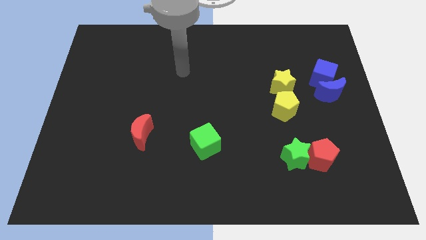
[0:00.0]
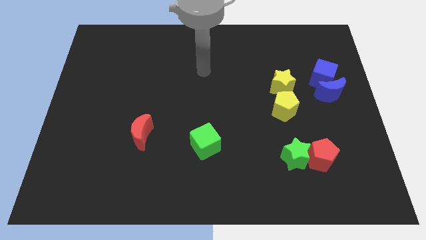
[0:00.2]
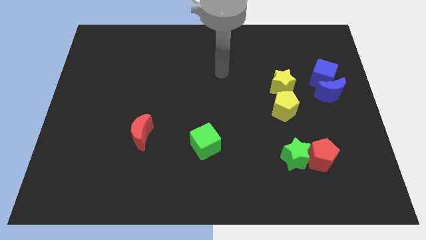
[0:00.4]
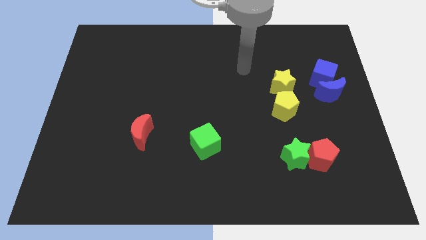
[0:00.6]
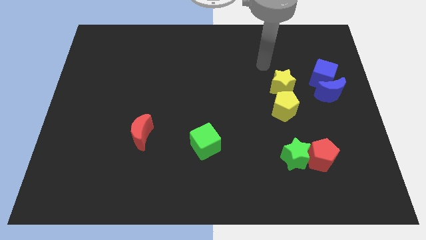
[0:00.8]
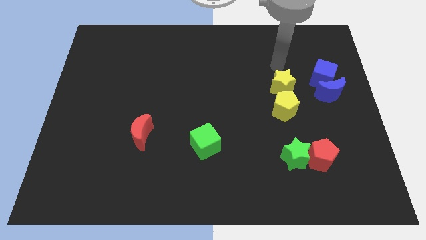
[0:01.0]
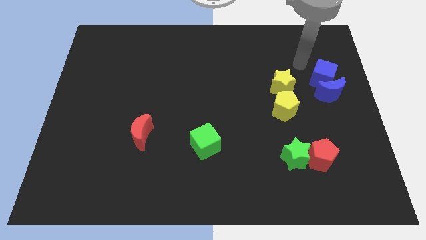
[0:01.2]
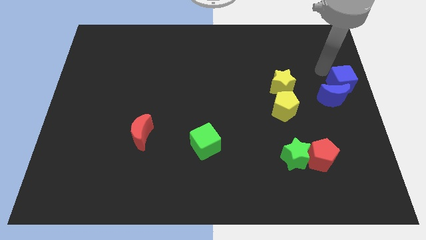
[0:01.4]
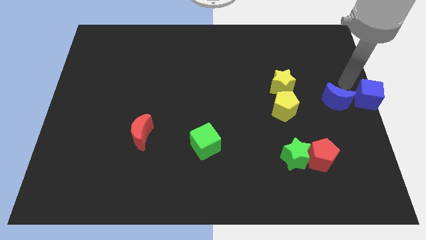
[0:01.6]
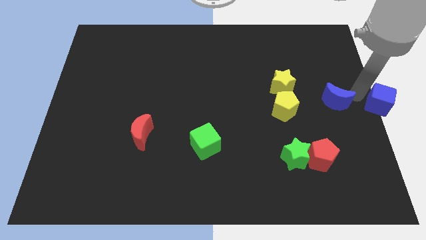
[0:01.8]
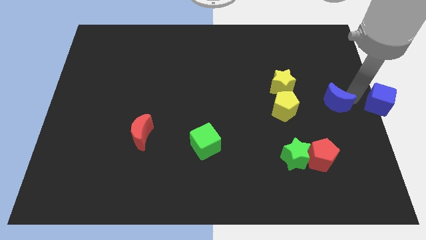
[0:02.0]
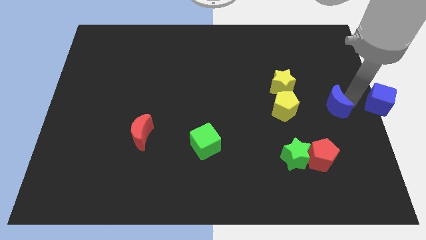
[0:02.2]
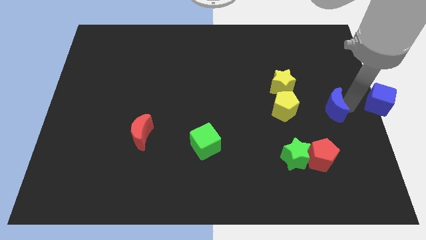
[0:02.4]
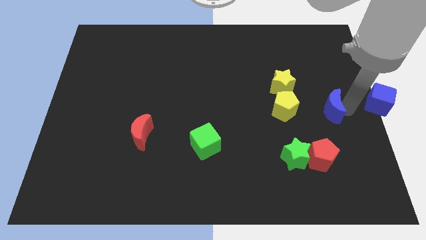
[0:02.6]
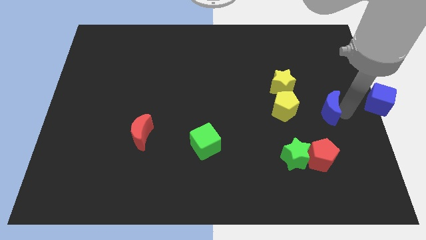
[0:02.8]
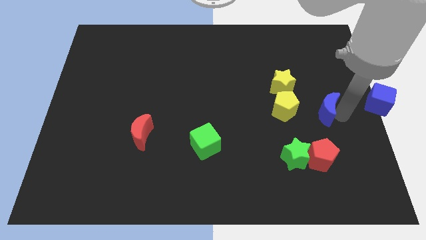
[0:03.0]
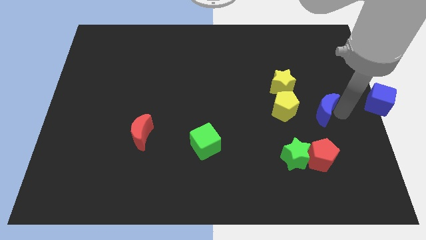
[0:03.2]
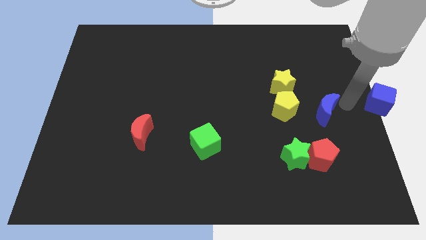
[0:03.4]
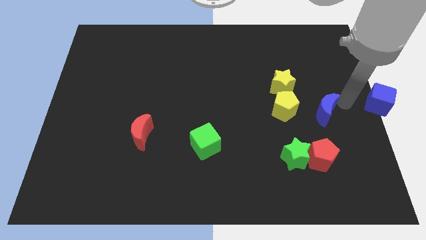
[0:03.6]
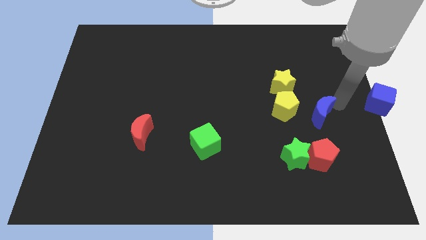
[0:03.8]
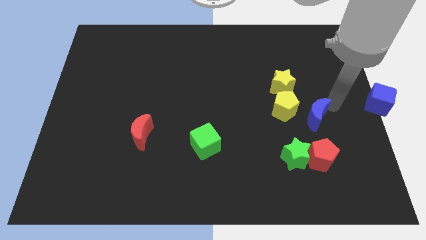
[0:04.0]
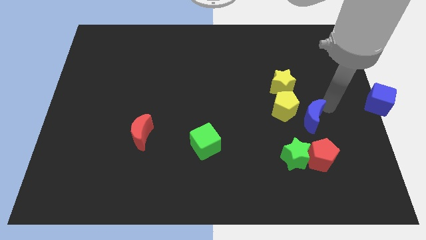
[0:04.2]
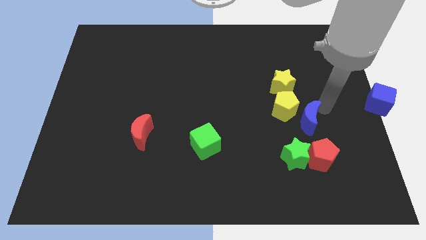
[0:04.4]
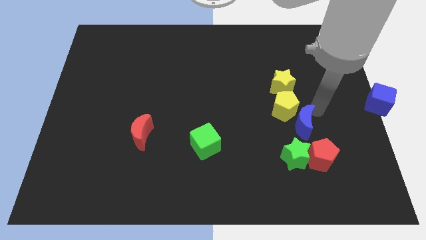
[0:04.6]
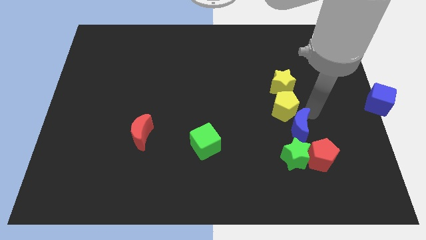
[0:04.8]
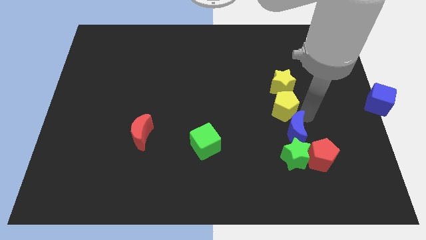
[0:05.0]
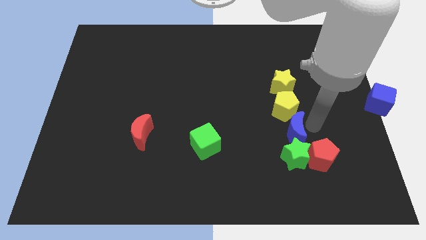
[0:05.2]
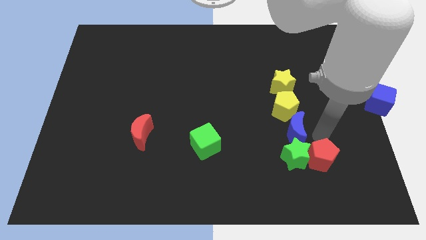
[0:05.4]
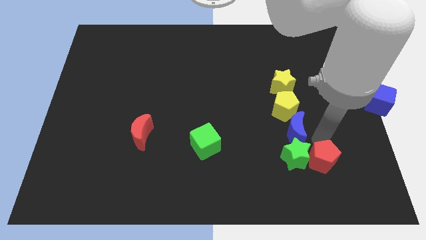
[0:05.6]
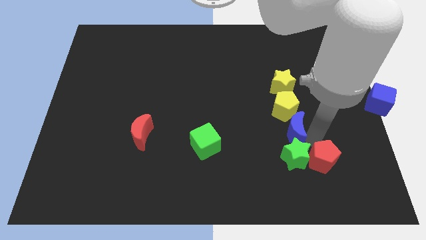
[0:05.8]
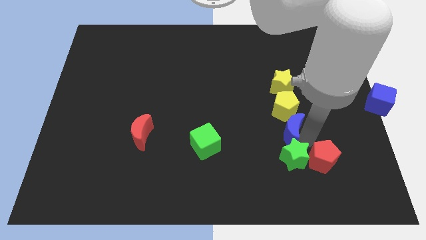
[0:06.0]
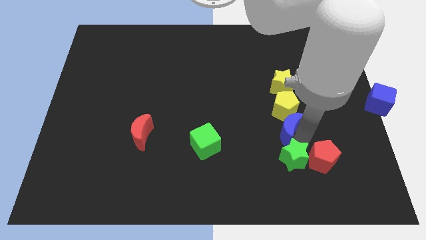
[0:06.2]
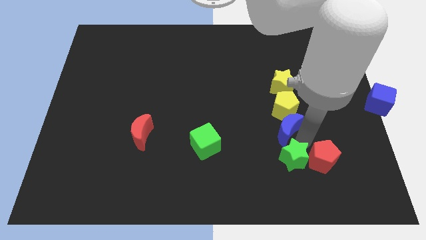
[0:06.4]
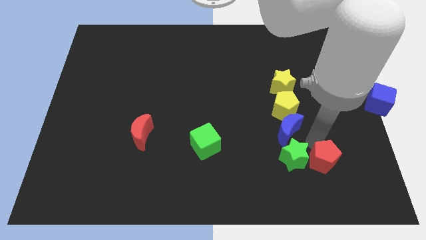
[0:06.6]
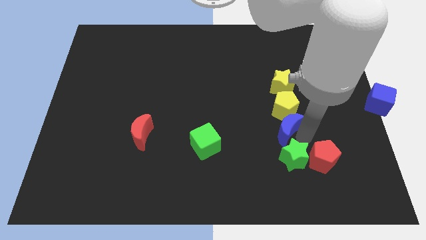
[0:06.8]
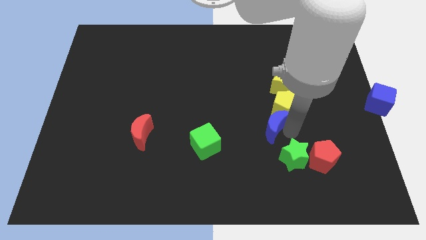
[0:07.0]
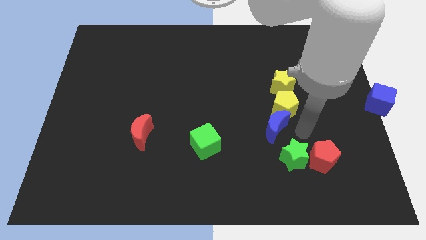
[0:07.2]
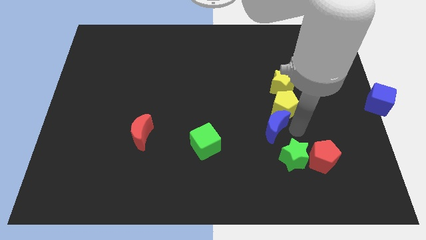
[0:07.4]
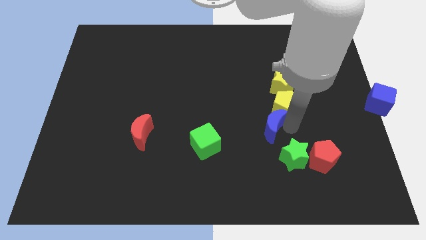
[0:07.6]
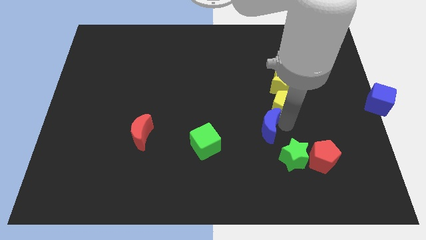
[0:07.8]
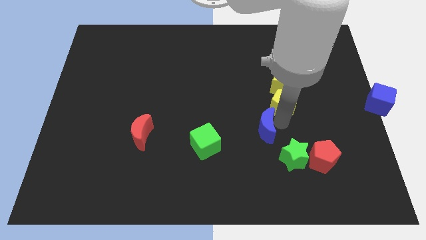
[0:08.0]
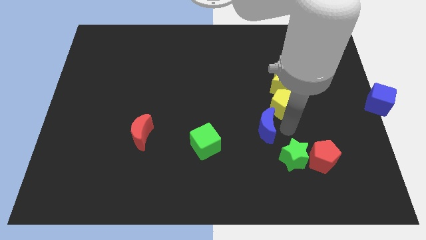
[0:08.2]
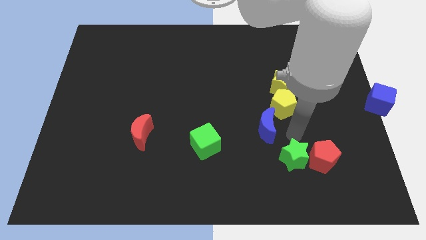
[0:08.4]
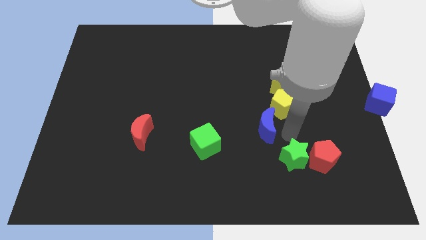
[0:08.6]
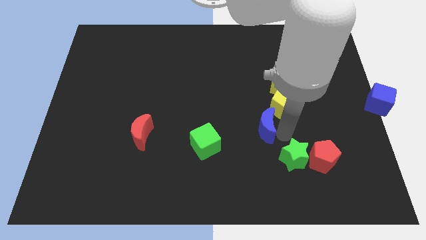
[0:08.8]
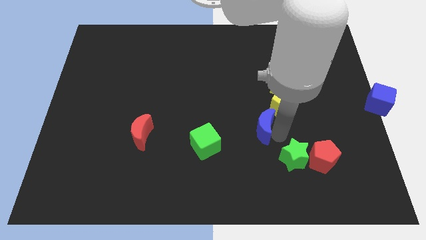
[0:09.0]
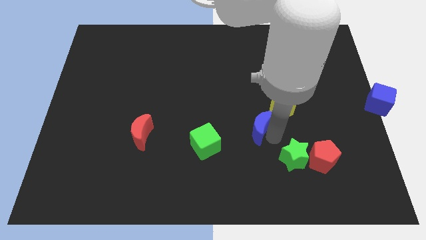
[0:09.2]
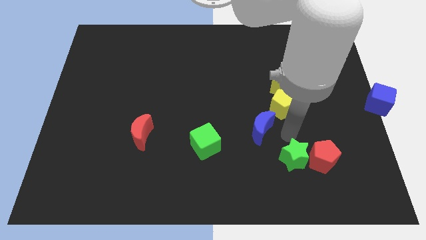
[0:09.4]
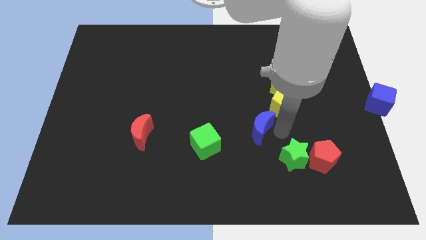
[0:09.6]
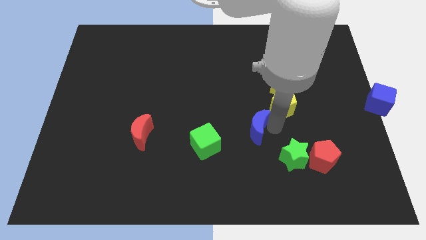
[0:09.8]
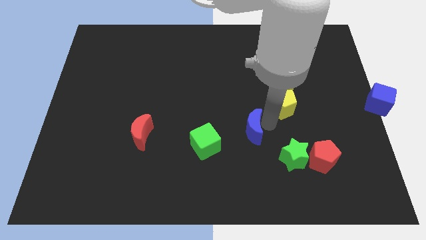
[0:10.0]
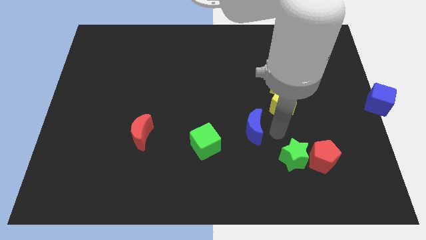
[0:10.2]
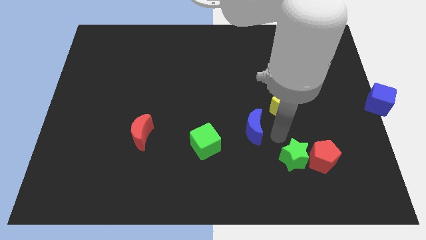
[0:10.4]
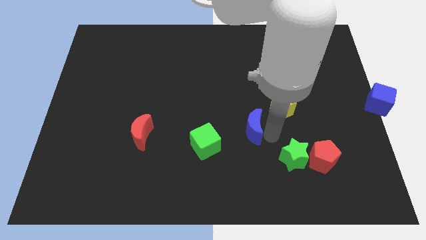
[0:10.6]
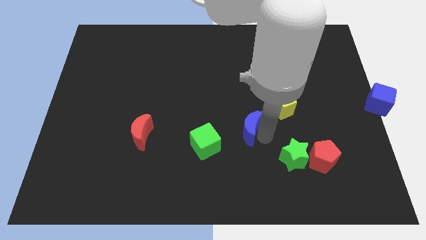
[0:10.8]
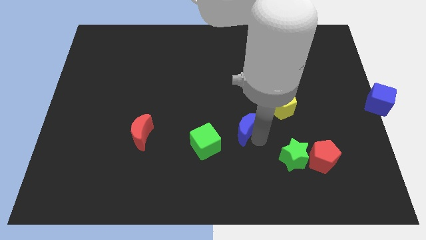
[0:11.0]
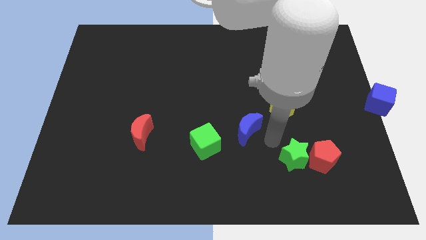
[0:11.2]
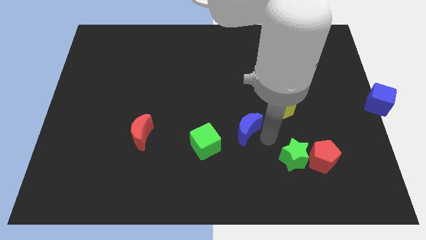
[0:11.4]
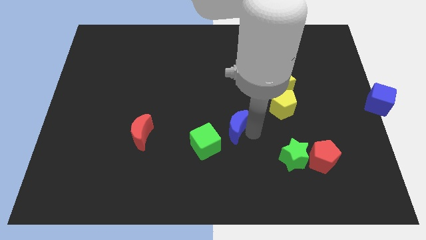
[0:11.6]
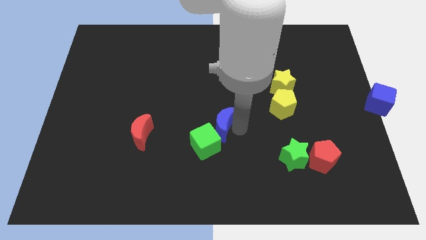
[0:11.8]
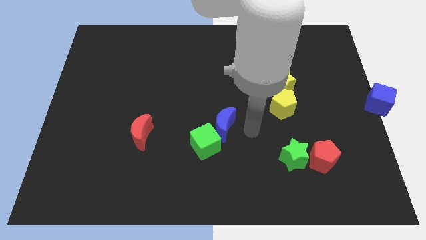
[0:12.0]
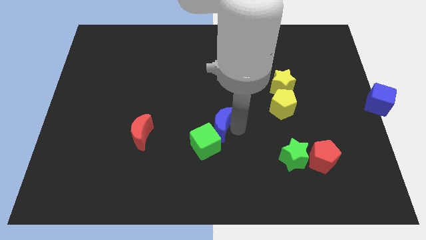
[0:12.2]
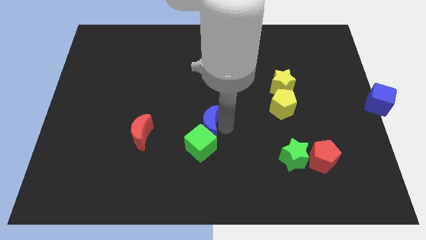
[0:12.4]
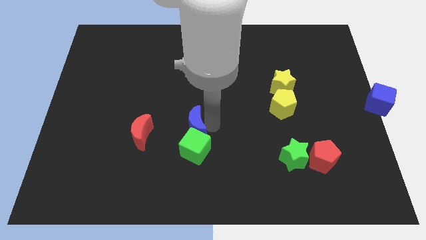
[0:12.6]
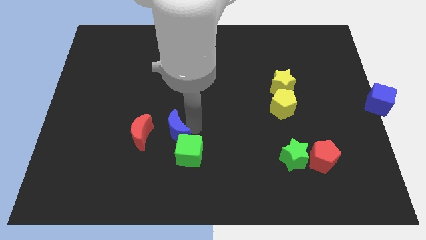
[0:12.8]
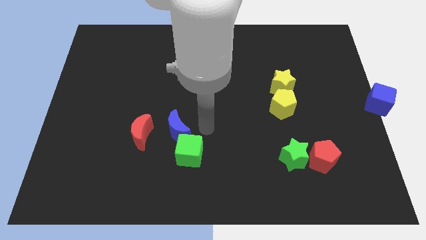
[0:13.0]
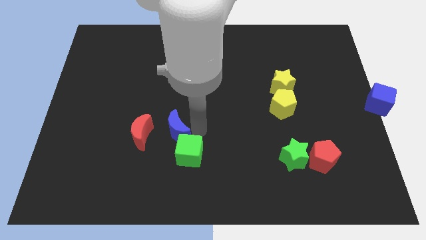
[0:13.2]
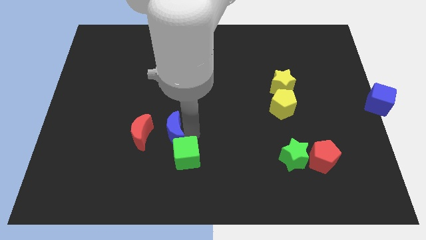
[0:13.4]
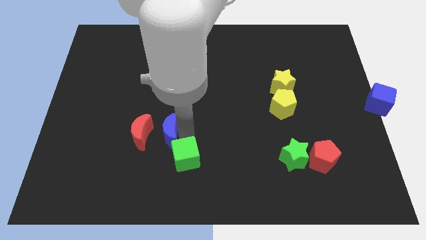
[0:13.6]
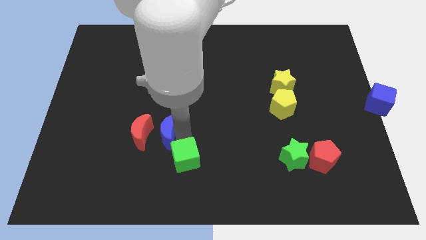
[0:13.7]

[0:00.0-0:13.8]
slide the blue moon close to the red moon

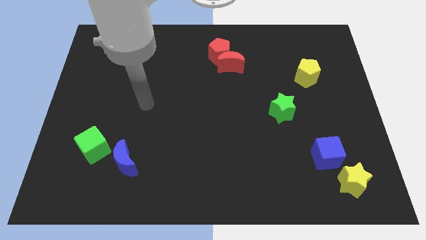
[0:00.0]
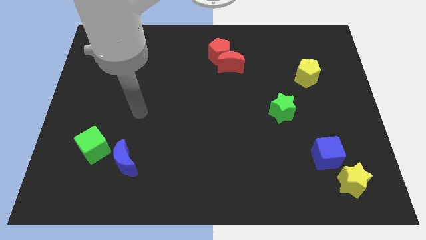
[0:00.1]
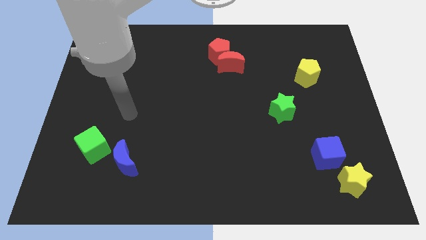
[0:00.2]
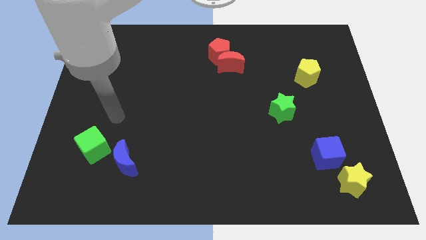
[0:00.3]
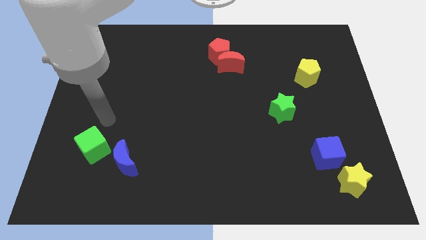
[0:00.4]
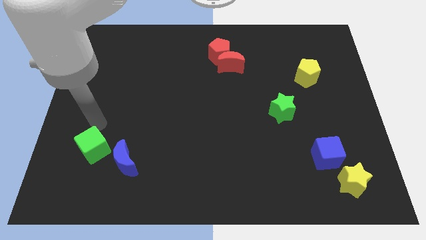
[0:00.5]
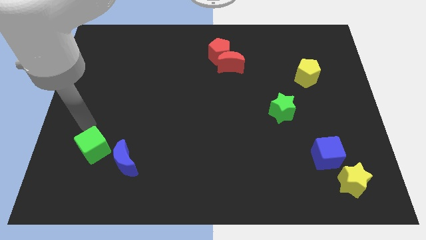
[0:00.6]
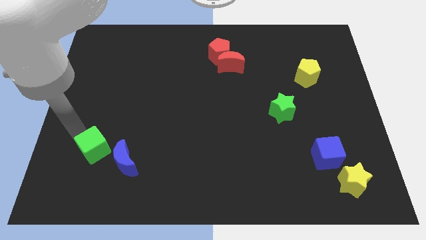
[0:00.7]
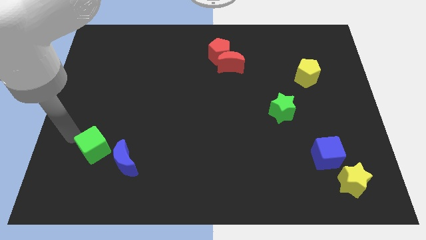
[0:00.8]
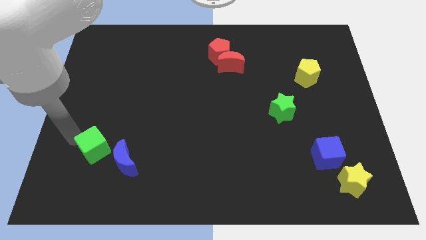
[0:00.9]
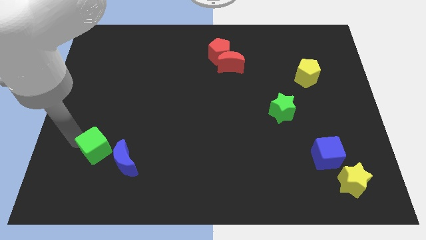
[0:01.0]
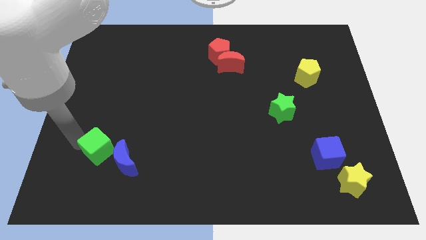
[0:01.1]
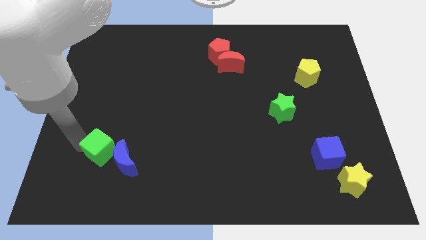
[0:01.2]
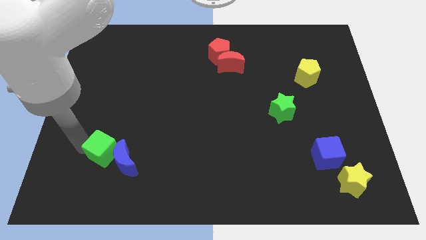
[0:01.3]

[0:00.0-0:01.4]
move the green cube to the blue moon
